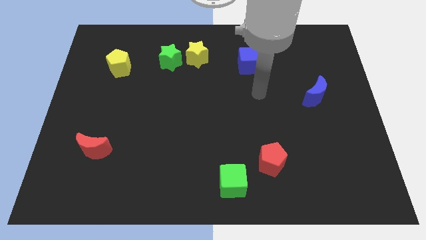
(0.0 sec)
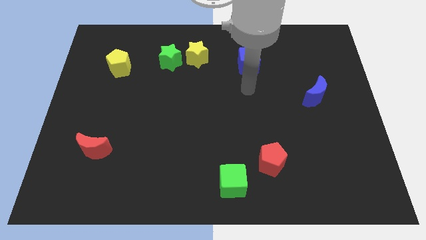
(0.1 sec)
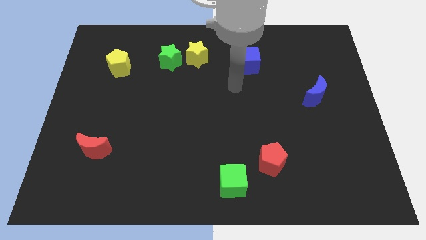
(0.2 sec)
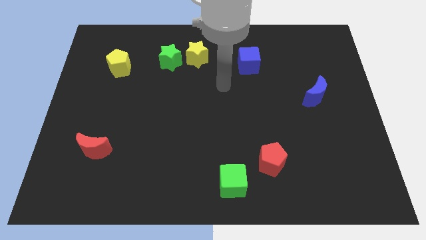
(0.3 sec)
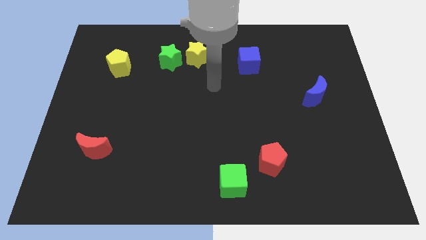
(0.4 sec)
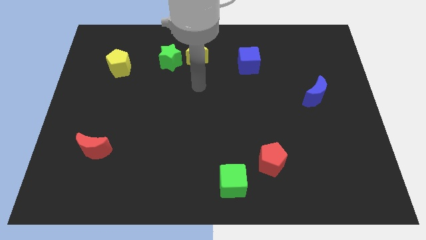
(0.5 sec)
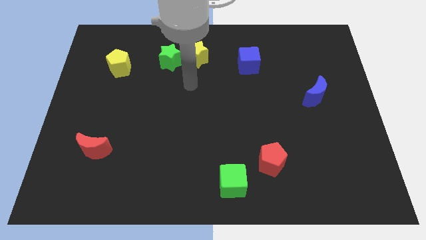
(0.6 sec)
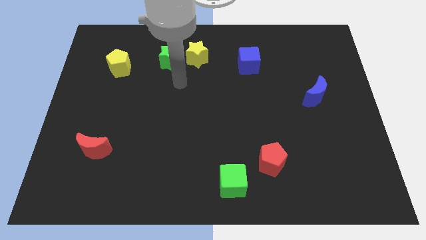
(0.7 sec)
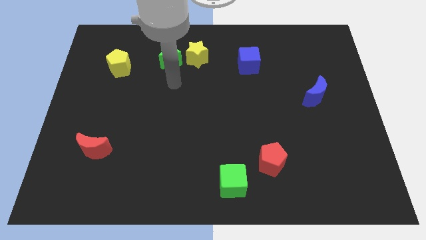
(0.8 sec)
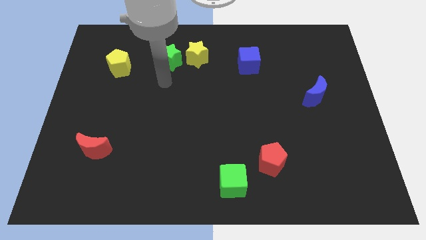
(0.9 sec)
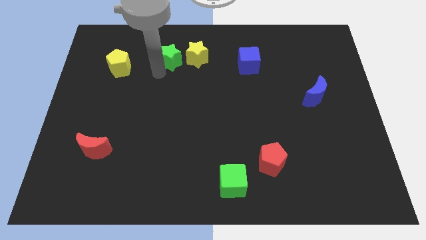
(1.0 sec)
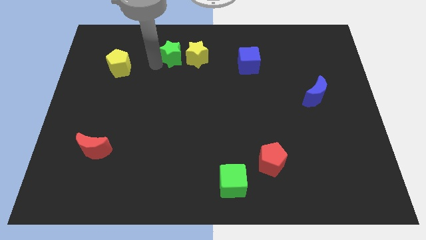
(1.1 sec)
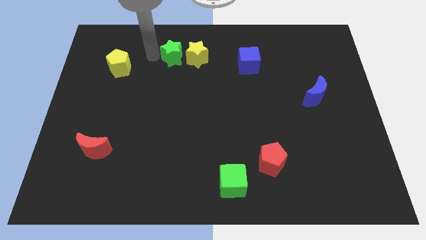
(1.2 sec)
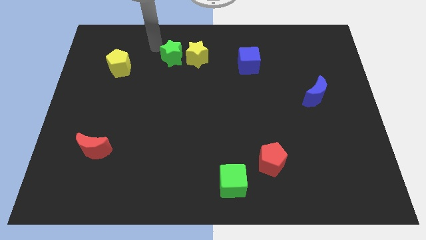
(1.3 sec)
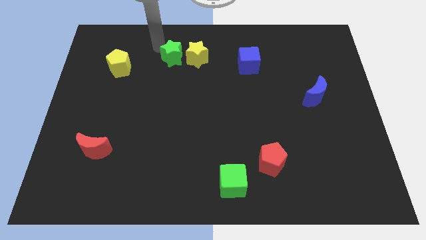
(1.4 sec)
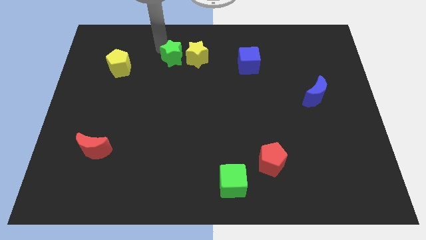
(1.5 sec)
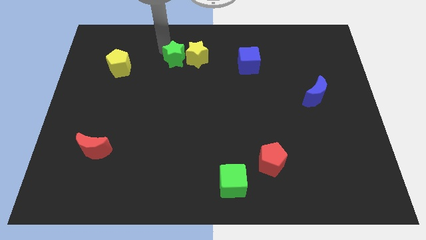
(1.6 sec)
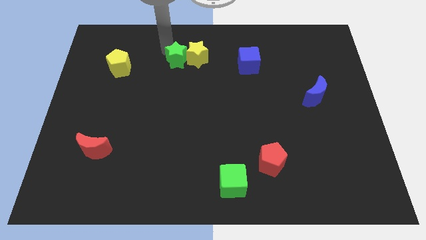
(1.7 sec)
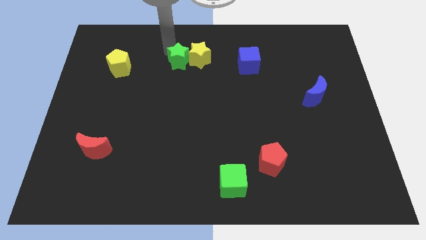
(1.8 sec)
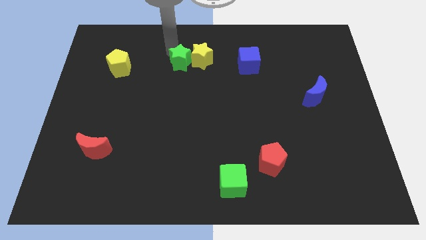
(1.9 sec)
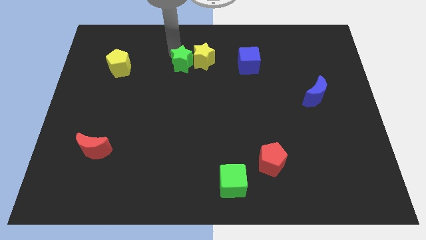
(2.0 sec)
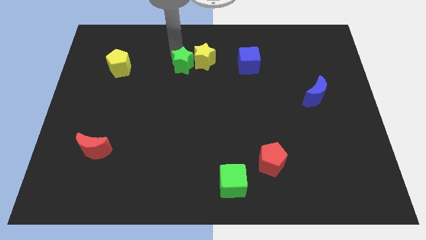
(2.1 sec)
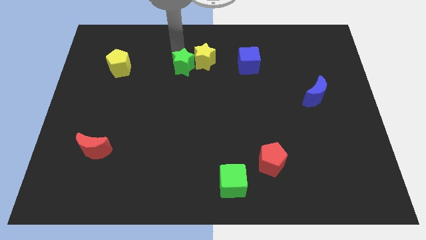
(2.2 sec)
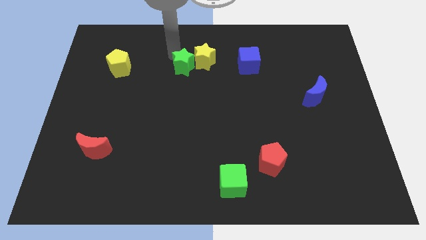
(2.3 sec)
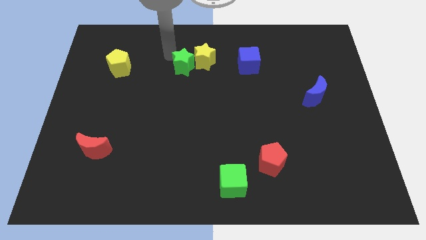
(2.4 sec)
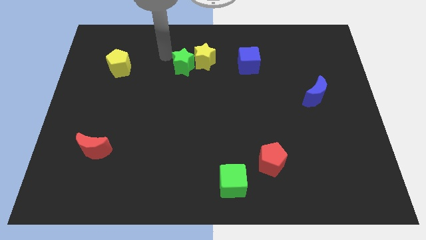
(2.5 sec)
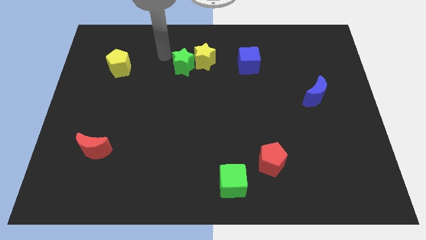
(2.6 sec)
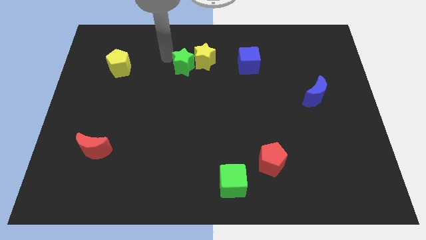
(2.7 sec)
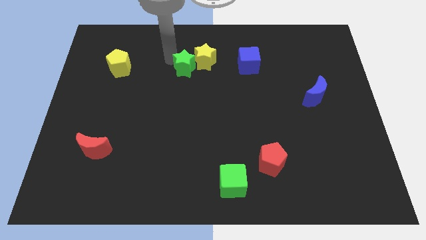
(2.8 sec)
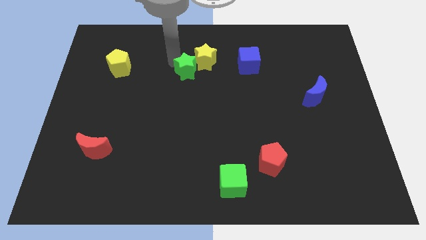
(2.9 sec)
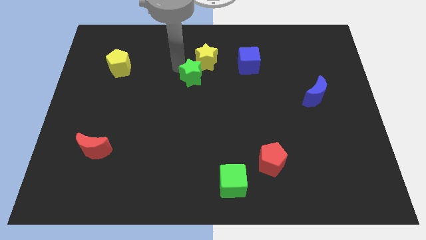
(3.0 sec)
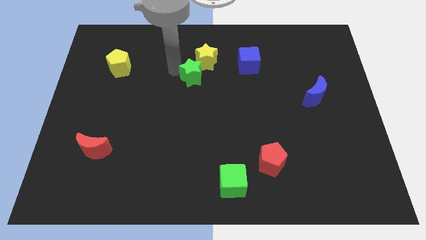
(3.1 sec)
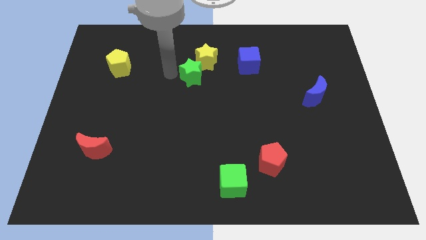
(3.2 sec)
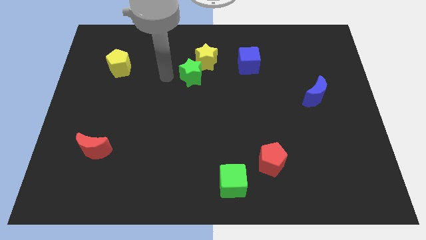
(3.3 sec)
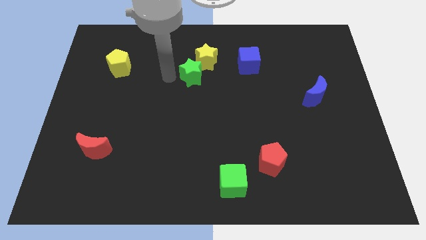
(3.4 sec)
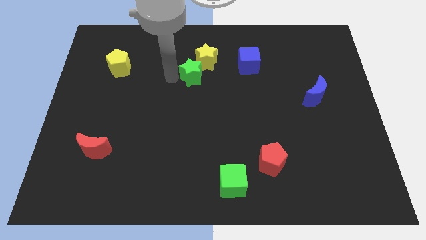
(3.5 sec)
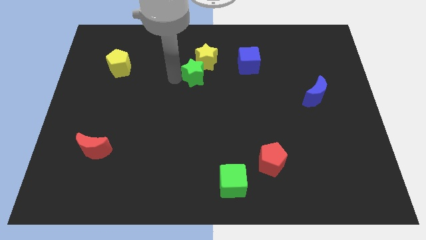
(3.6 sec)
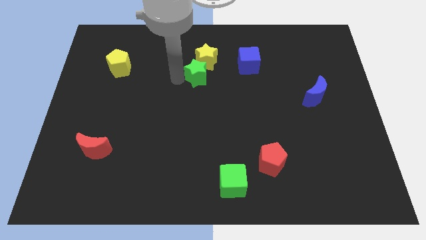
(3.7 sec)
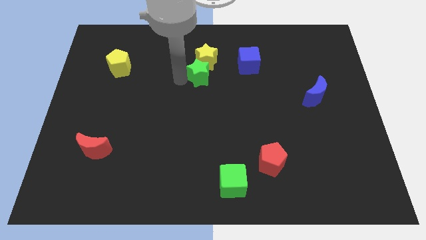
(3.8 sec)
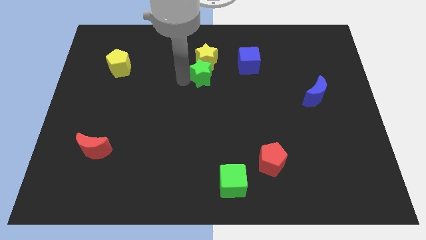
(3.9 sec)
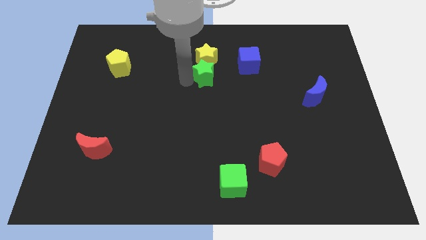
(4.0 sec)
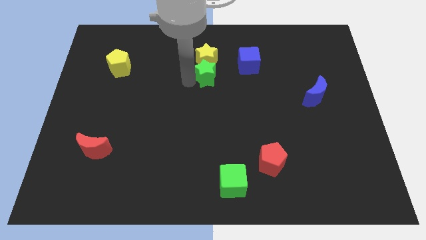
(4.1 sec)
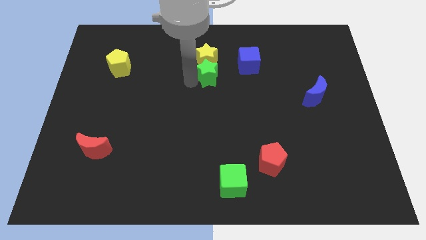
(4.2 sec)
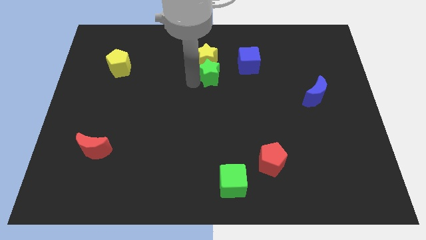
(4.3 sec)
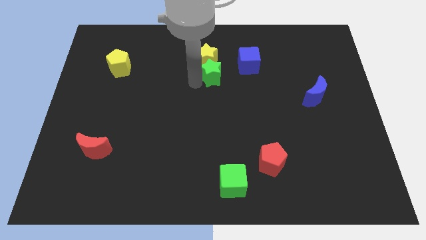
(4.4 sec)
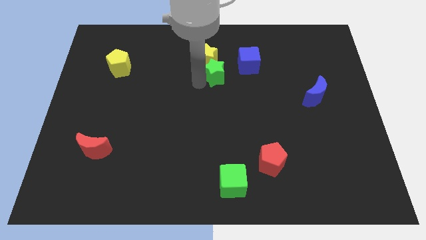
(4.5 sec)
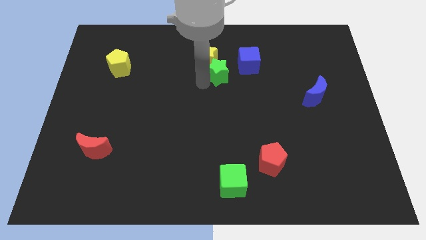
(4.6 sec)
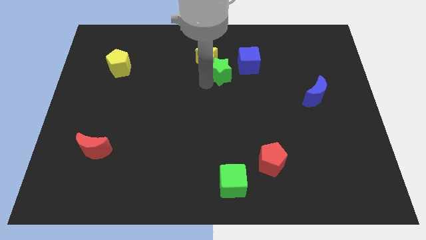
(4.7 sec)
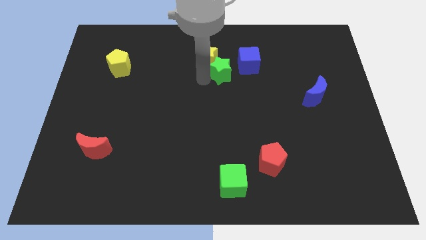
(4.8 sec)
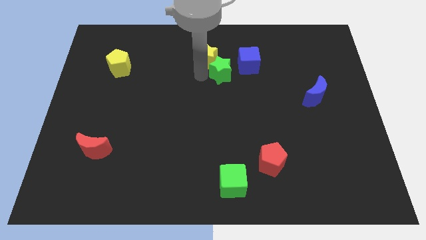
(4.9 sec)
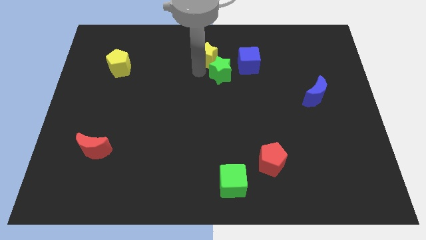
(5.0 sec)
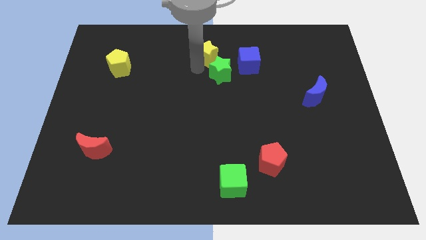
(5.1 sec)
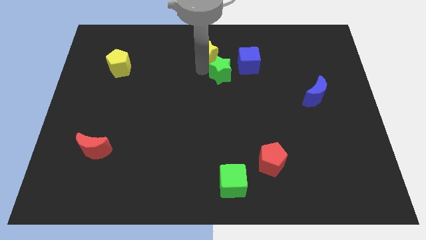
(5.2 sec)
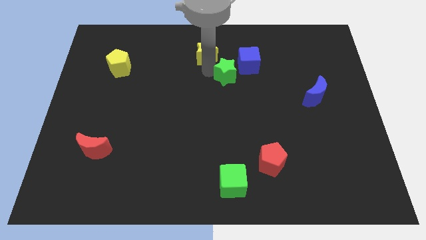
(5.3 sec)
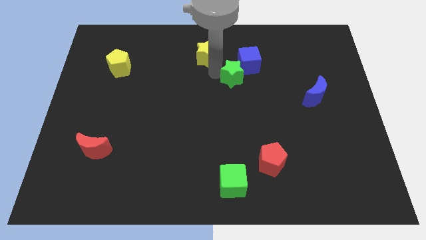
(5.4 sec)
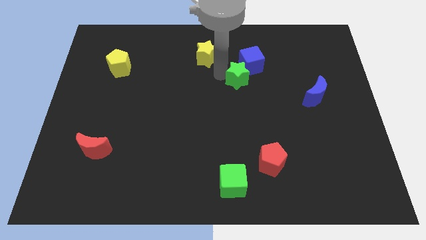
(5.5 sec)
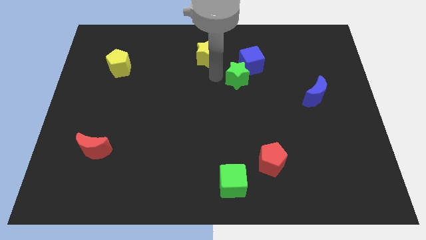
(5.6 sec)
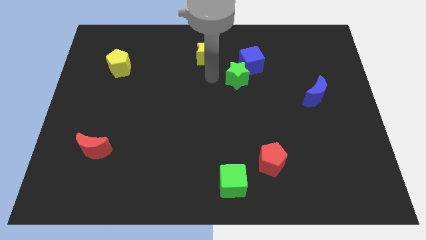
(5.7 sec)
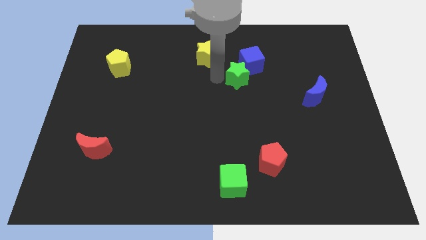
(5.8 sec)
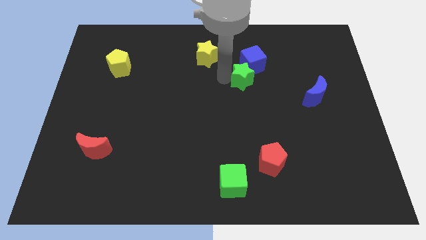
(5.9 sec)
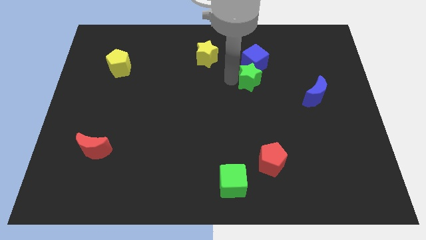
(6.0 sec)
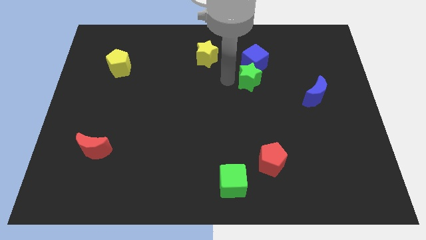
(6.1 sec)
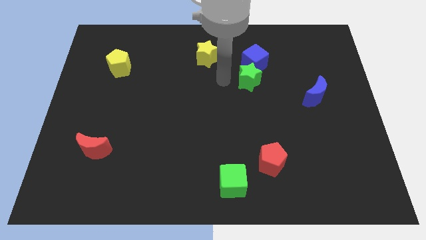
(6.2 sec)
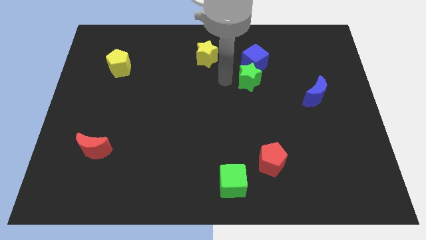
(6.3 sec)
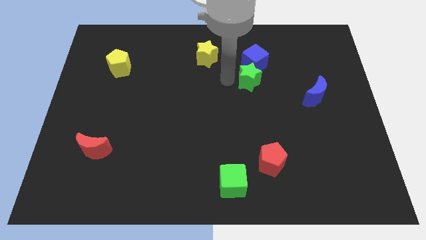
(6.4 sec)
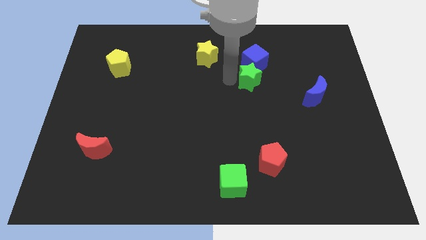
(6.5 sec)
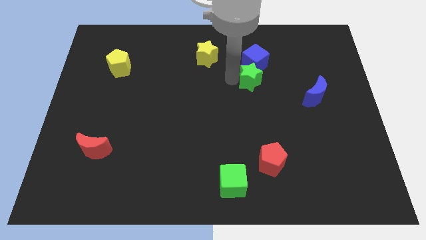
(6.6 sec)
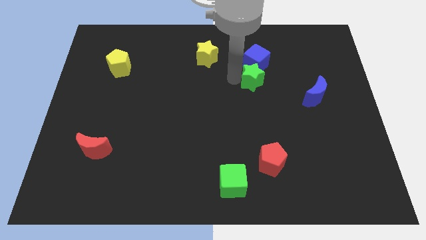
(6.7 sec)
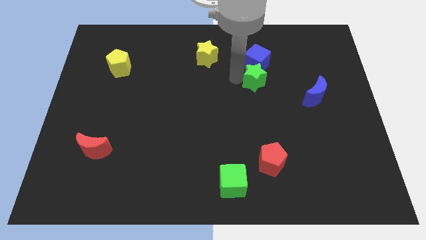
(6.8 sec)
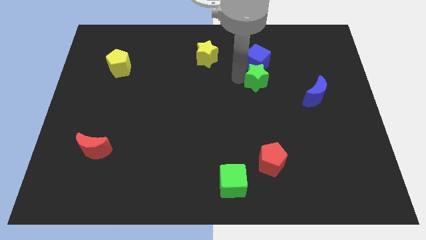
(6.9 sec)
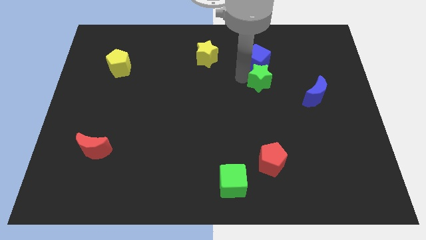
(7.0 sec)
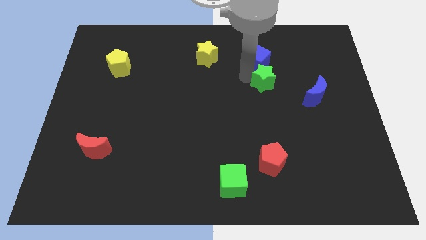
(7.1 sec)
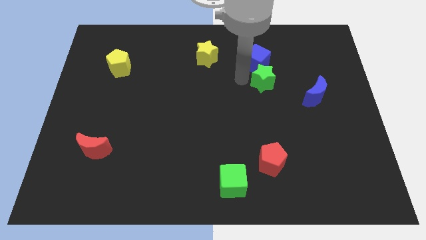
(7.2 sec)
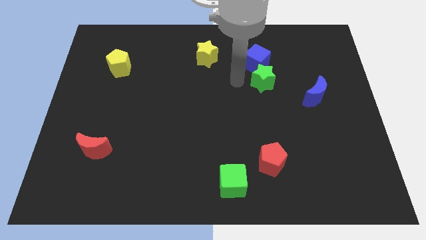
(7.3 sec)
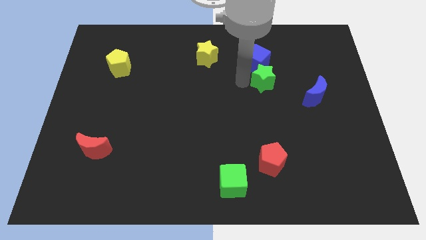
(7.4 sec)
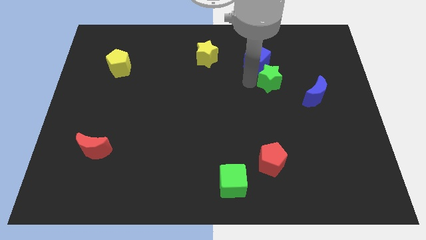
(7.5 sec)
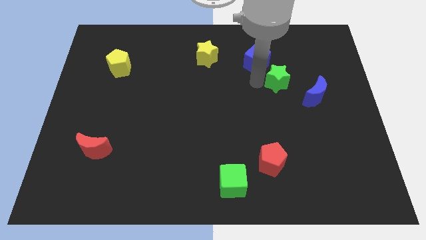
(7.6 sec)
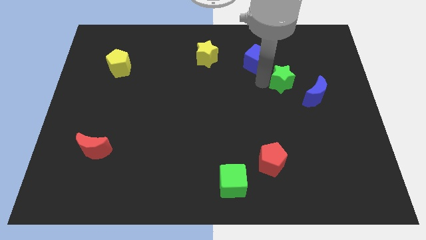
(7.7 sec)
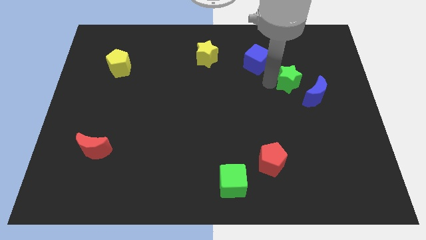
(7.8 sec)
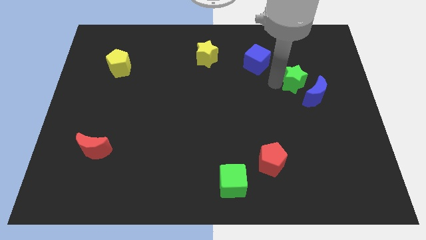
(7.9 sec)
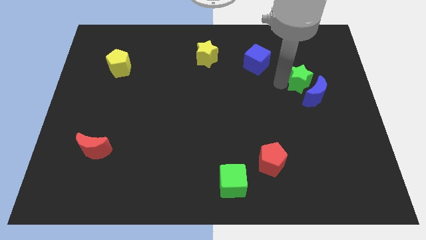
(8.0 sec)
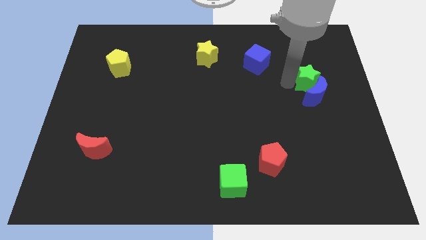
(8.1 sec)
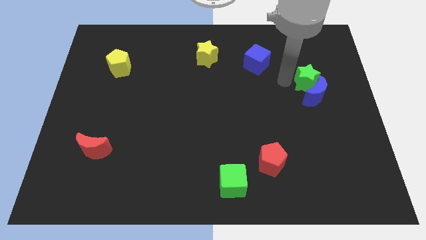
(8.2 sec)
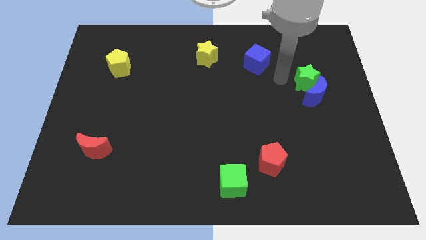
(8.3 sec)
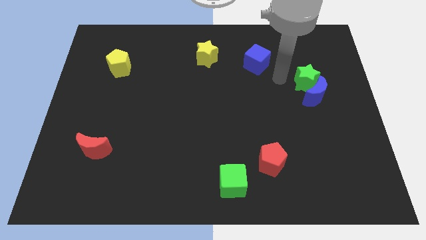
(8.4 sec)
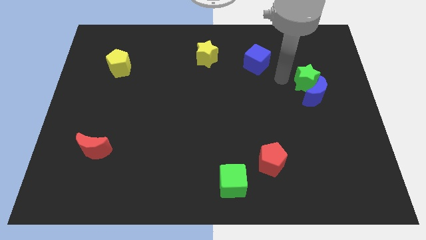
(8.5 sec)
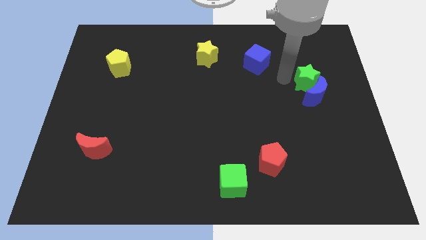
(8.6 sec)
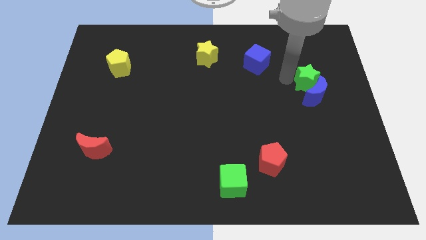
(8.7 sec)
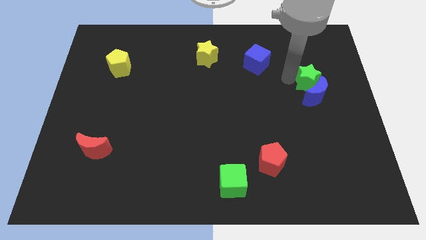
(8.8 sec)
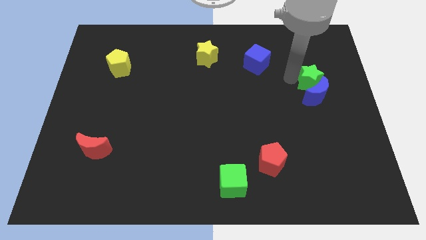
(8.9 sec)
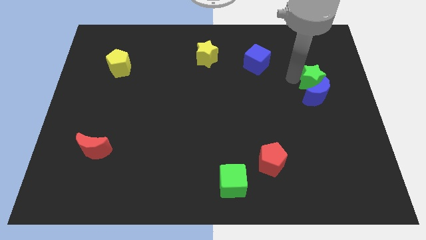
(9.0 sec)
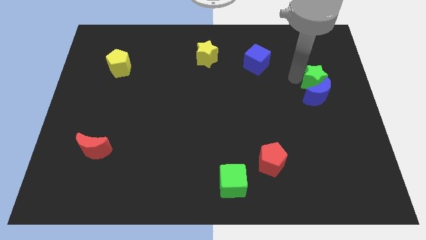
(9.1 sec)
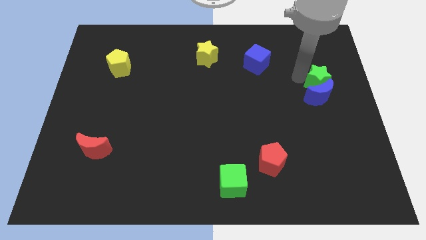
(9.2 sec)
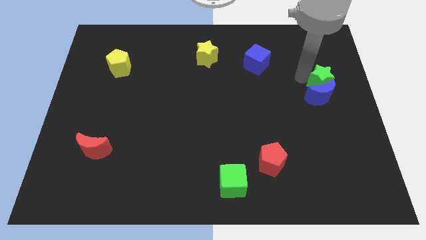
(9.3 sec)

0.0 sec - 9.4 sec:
put the green star to the right side
